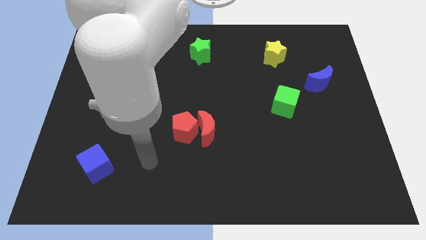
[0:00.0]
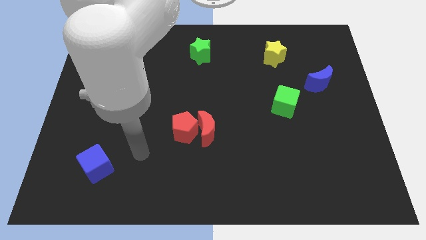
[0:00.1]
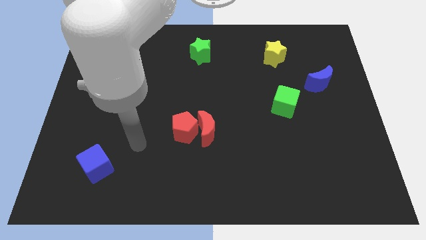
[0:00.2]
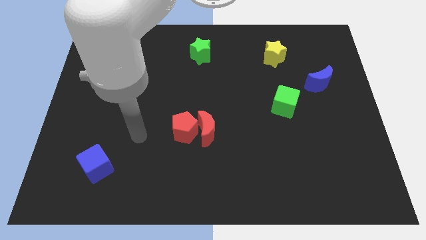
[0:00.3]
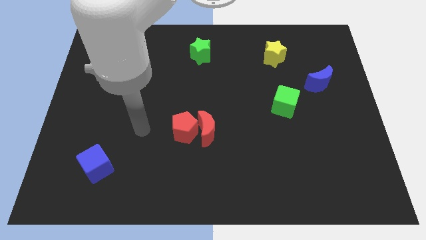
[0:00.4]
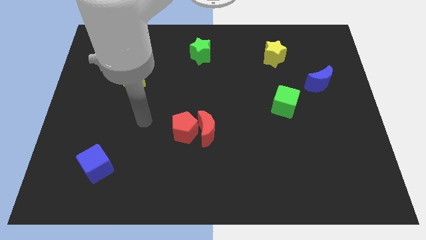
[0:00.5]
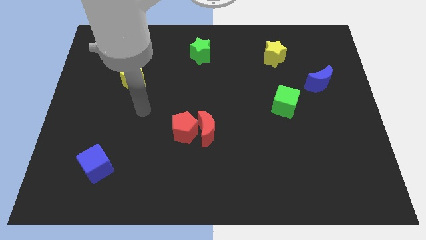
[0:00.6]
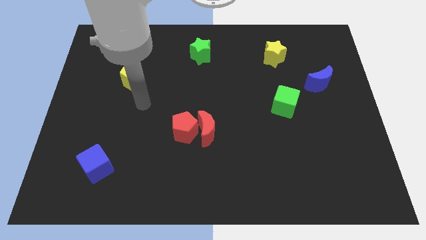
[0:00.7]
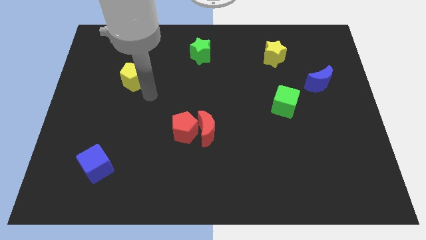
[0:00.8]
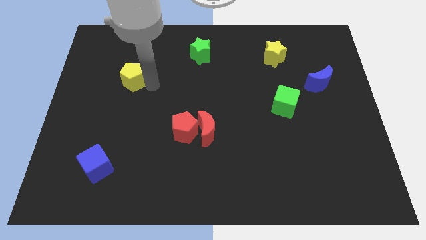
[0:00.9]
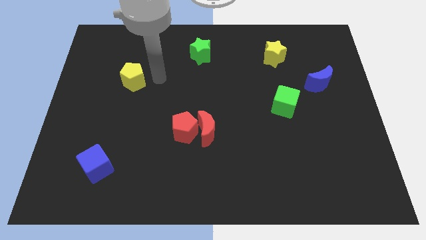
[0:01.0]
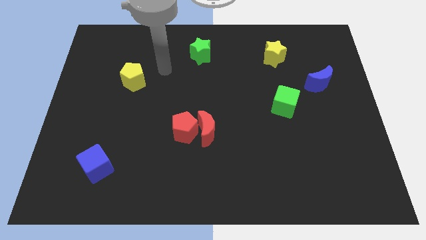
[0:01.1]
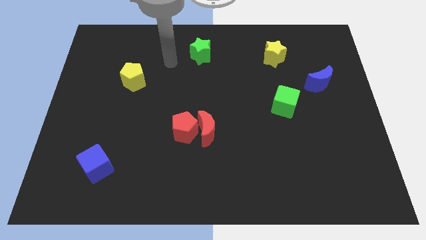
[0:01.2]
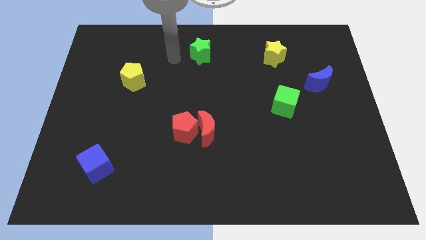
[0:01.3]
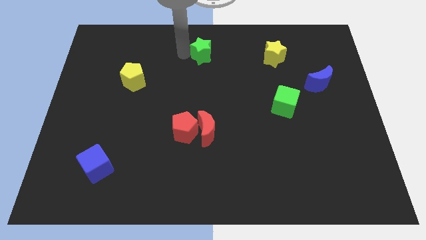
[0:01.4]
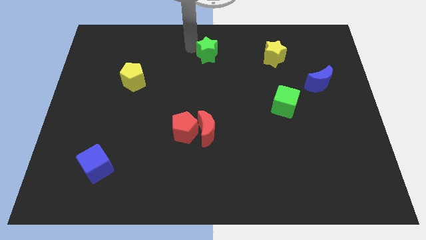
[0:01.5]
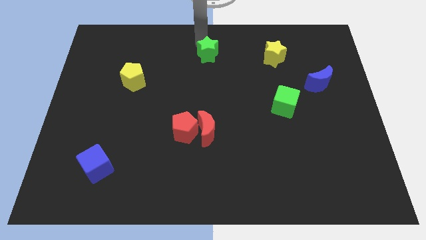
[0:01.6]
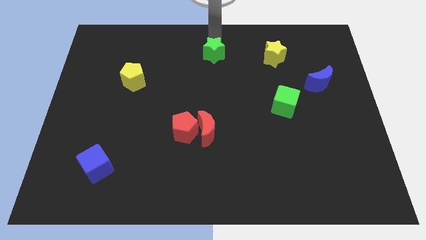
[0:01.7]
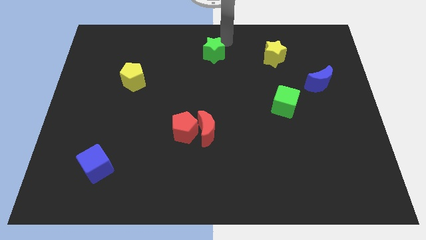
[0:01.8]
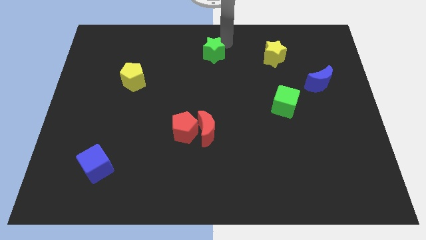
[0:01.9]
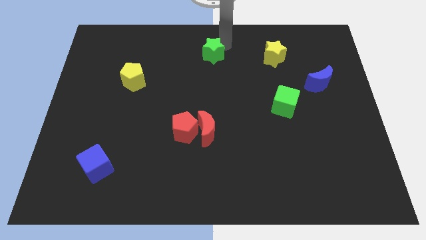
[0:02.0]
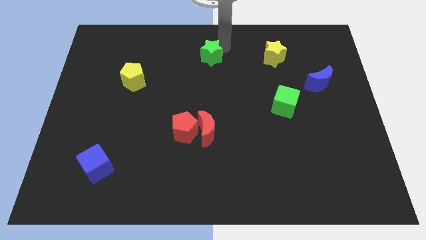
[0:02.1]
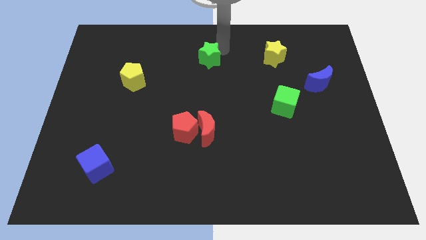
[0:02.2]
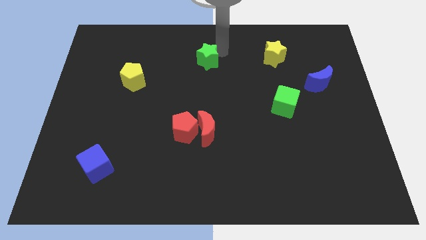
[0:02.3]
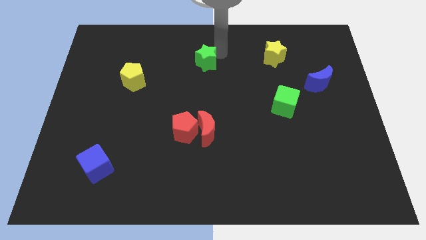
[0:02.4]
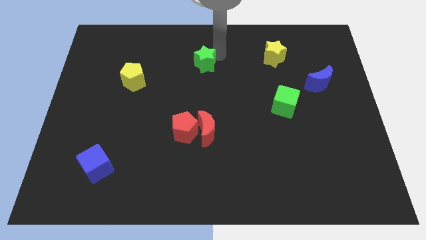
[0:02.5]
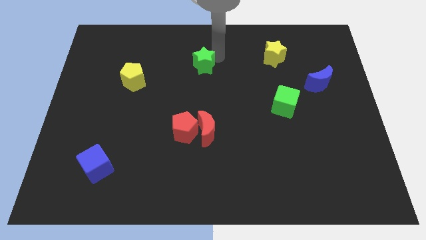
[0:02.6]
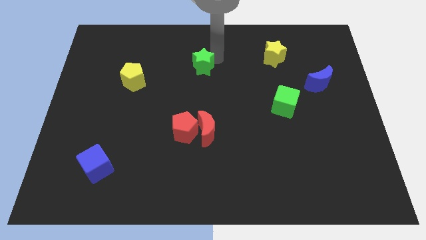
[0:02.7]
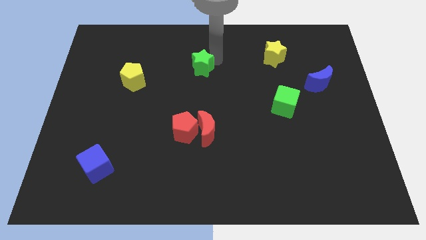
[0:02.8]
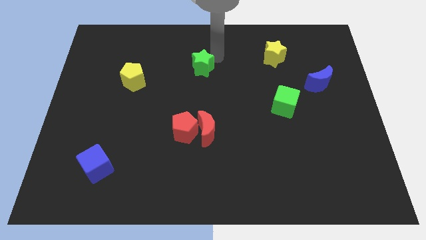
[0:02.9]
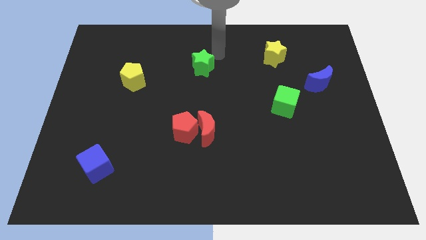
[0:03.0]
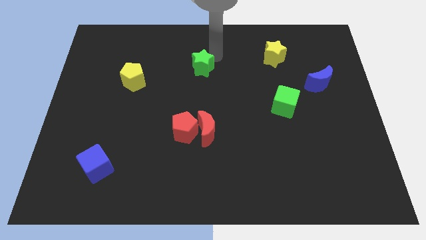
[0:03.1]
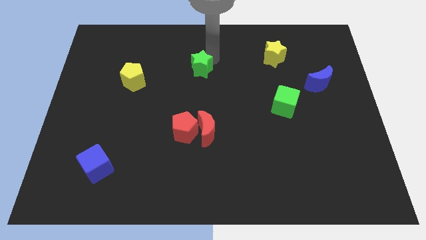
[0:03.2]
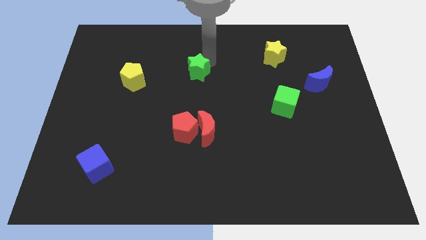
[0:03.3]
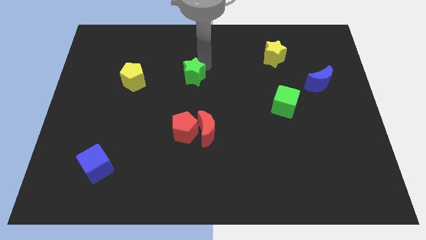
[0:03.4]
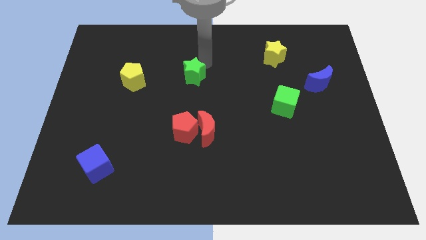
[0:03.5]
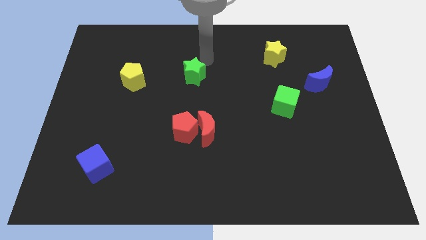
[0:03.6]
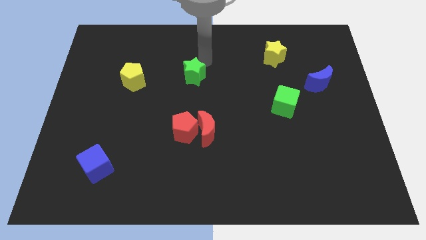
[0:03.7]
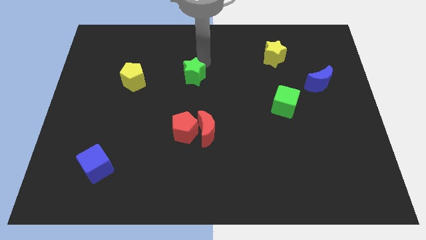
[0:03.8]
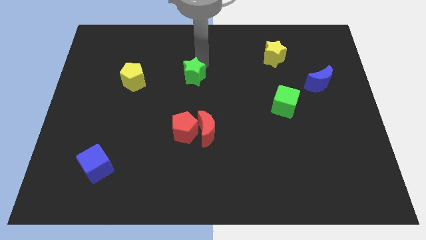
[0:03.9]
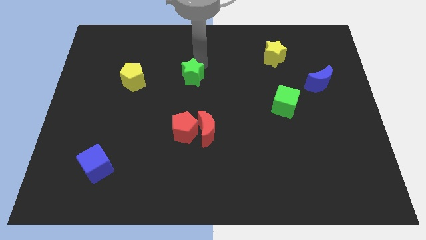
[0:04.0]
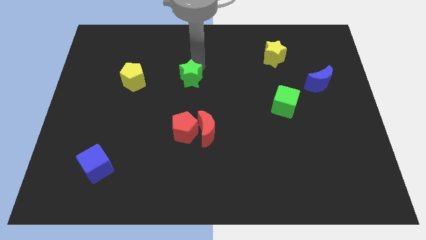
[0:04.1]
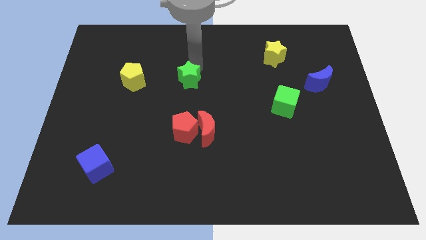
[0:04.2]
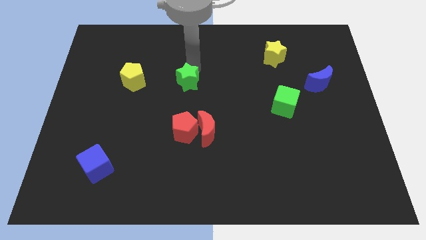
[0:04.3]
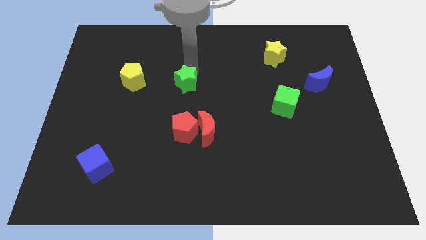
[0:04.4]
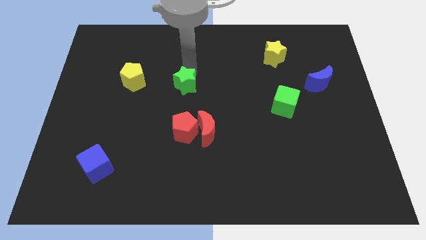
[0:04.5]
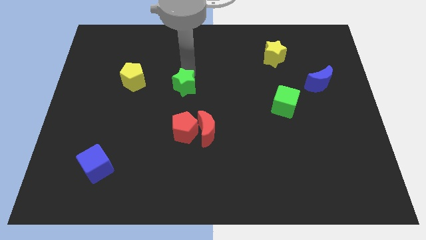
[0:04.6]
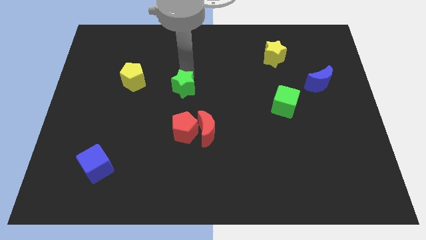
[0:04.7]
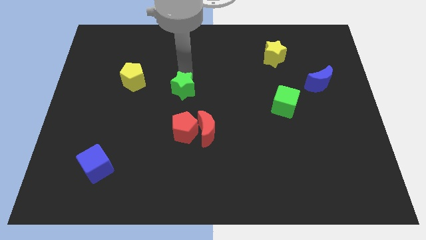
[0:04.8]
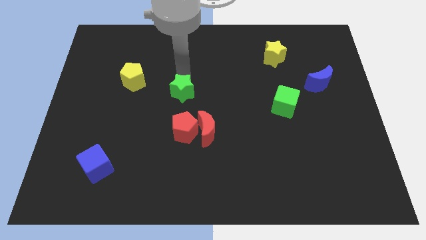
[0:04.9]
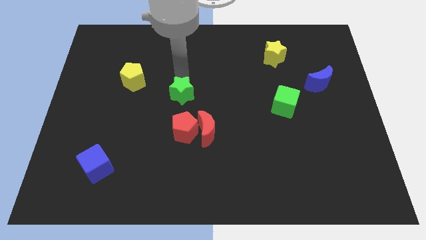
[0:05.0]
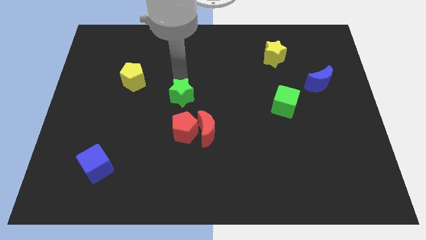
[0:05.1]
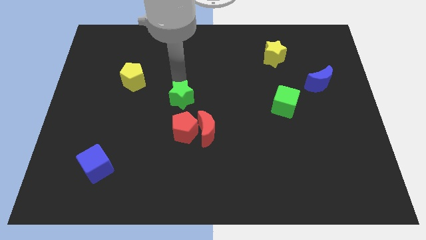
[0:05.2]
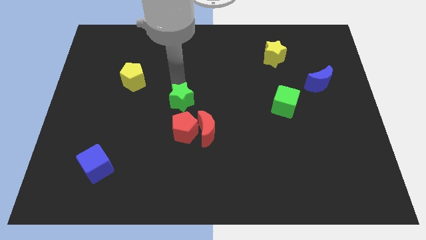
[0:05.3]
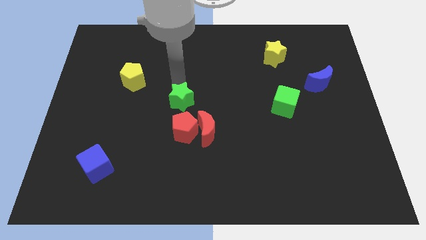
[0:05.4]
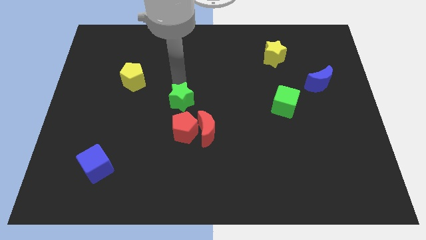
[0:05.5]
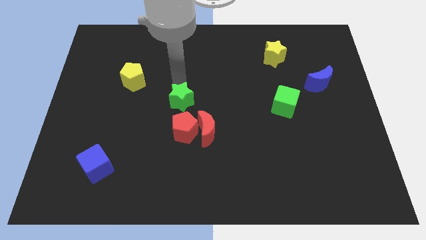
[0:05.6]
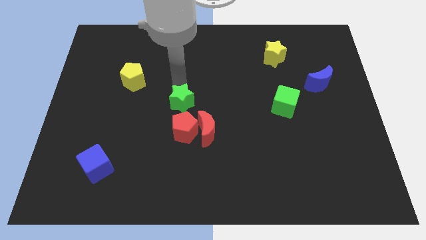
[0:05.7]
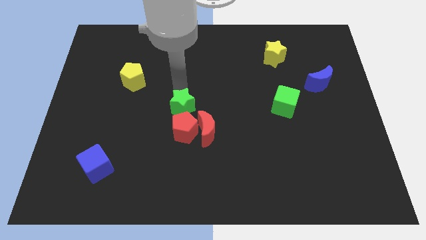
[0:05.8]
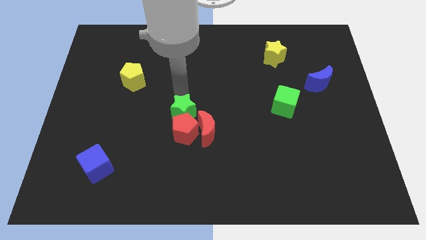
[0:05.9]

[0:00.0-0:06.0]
move the green star towards the red pentagon

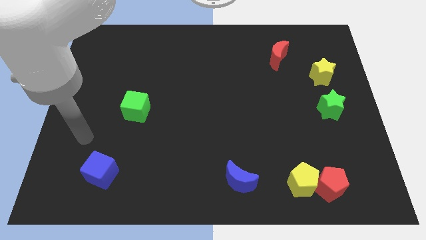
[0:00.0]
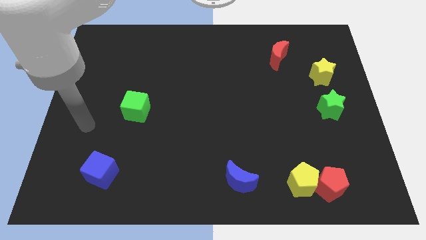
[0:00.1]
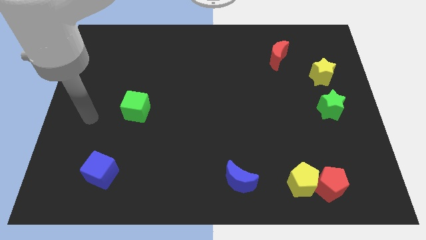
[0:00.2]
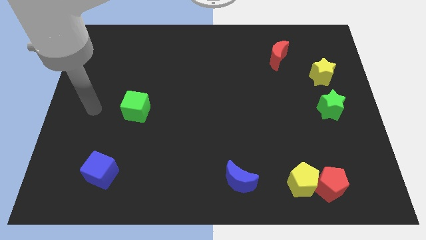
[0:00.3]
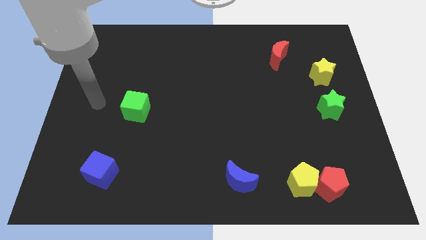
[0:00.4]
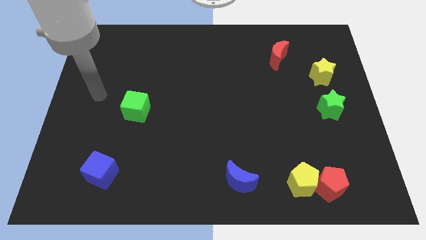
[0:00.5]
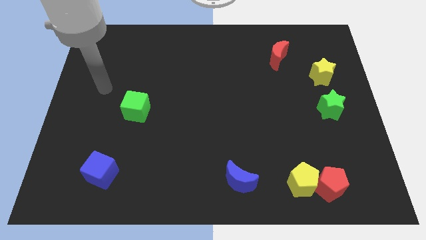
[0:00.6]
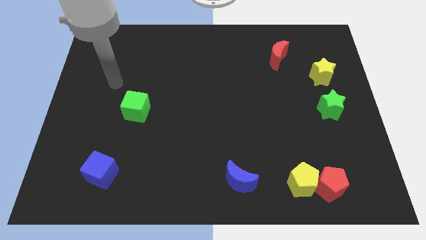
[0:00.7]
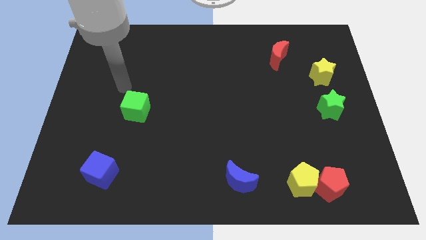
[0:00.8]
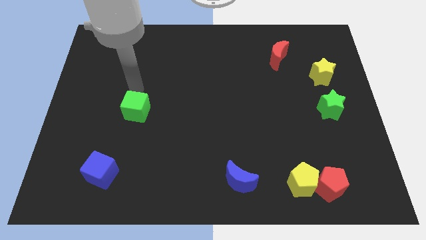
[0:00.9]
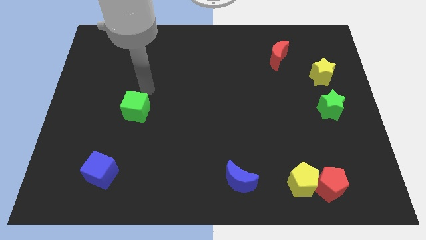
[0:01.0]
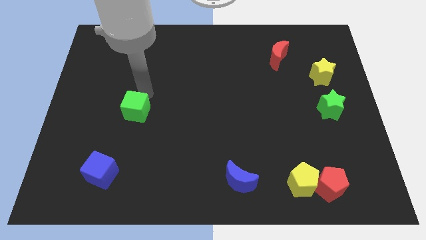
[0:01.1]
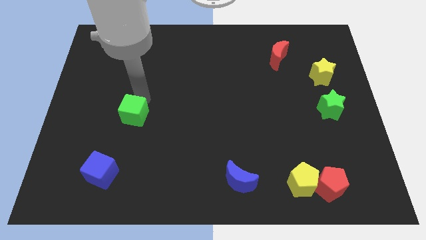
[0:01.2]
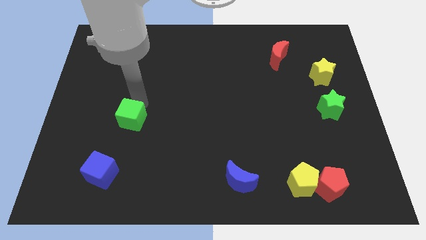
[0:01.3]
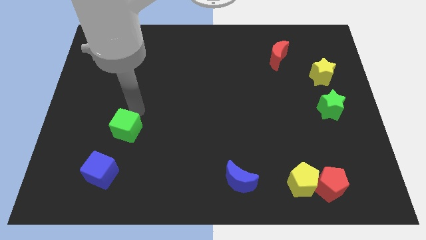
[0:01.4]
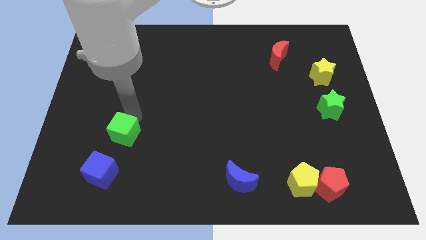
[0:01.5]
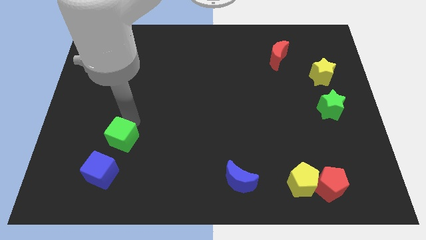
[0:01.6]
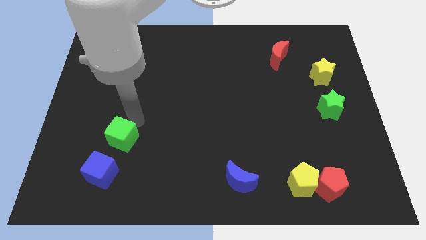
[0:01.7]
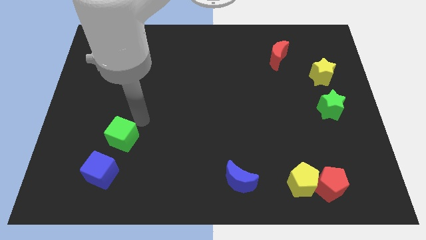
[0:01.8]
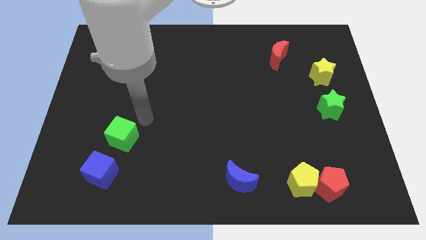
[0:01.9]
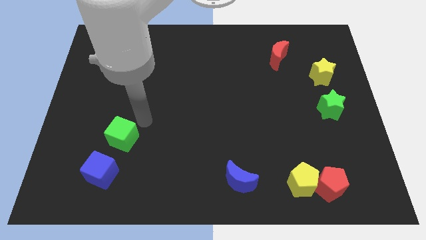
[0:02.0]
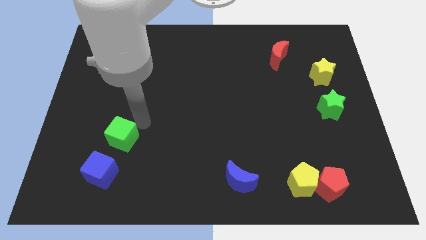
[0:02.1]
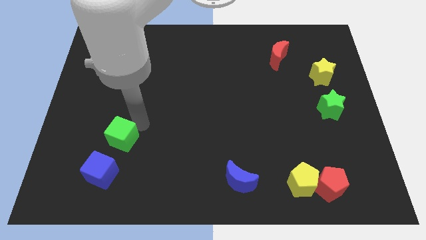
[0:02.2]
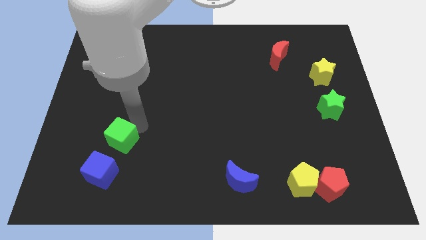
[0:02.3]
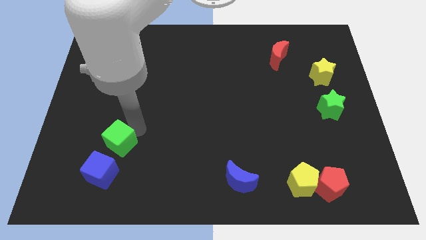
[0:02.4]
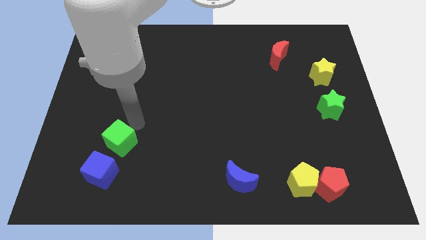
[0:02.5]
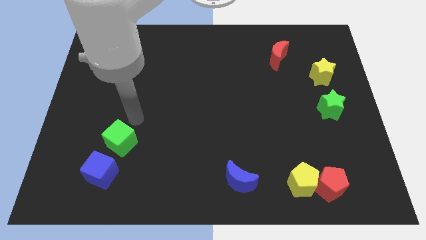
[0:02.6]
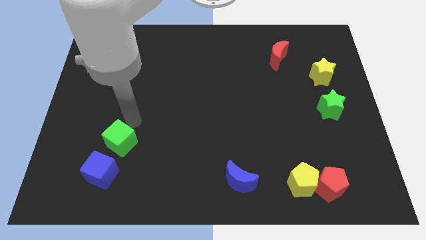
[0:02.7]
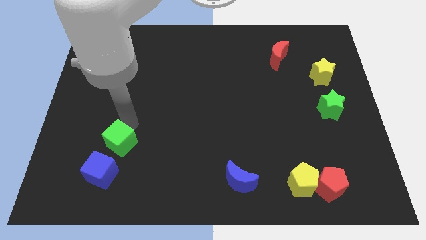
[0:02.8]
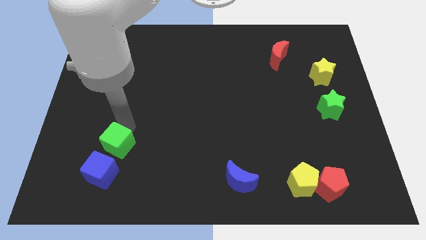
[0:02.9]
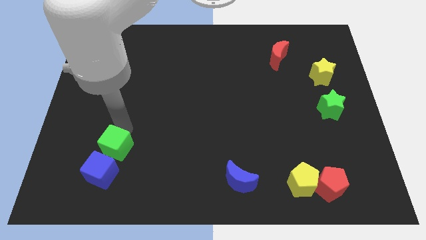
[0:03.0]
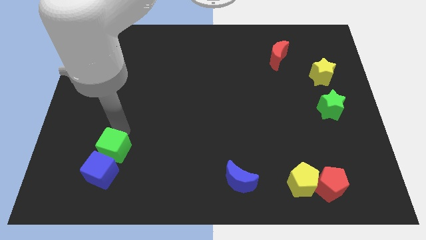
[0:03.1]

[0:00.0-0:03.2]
push the green cube towards the blue cube
